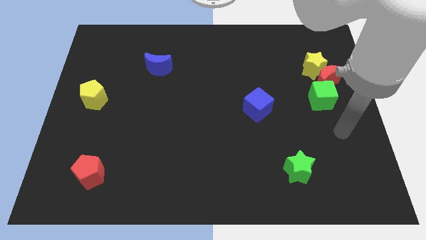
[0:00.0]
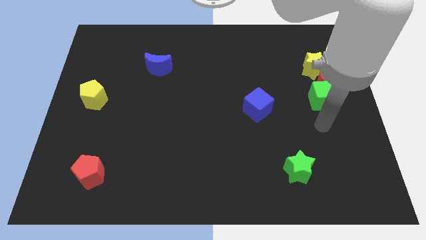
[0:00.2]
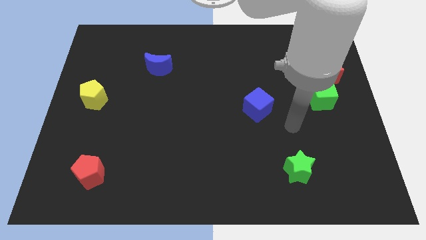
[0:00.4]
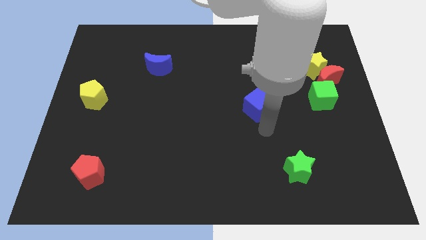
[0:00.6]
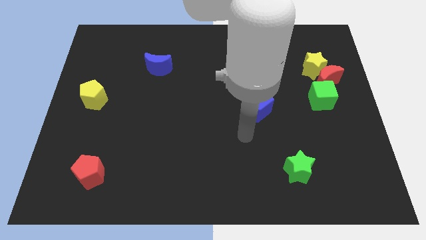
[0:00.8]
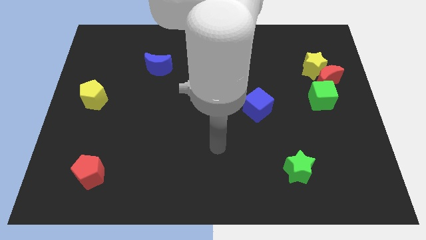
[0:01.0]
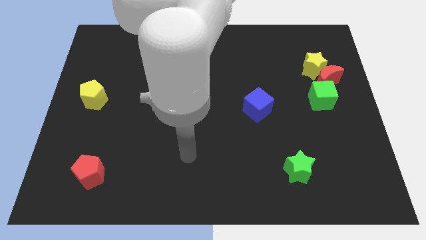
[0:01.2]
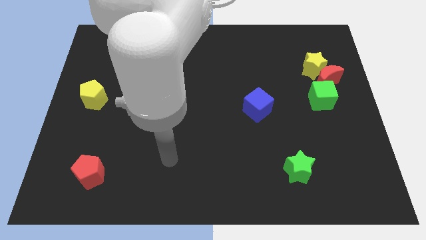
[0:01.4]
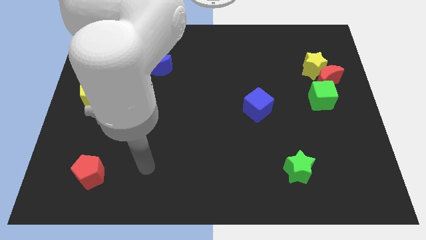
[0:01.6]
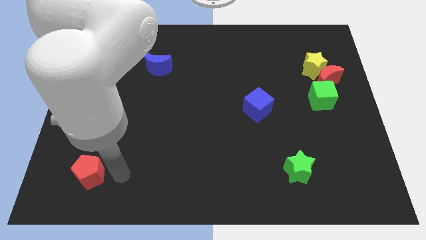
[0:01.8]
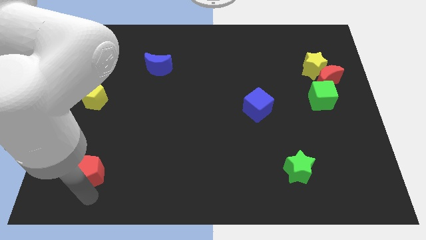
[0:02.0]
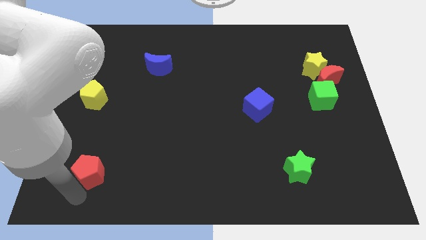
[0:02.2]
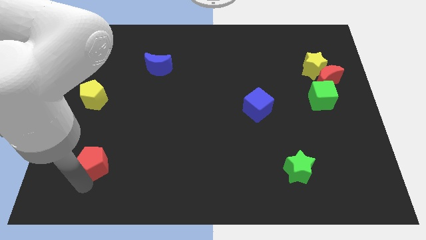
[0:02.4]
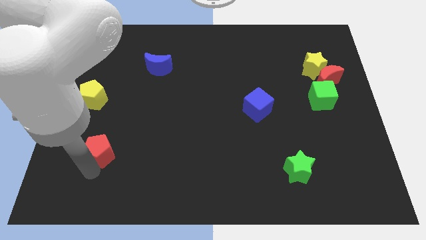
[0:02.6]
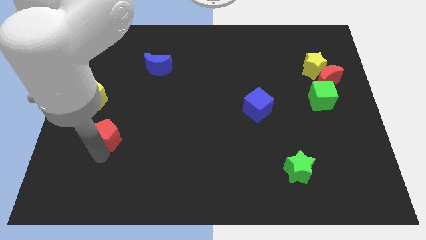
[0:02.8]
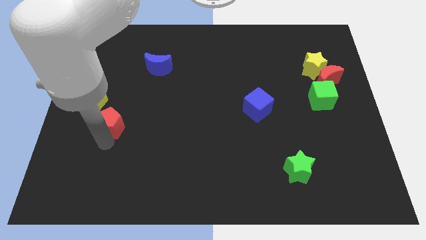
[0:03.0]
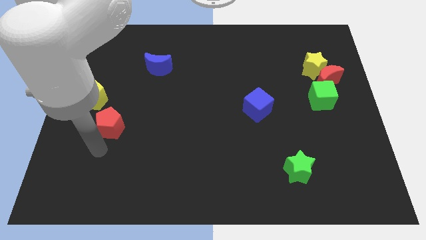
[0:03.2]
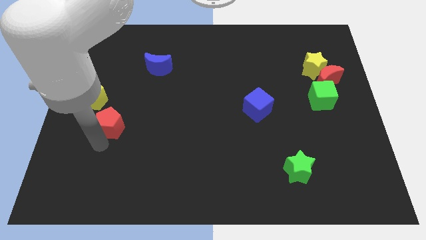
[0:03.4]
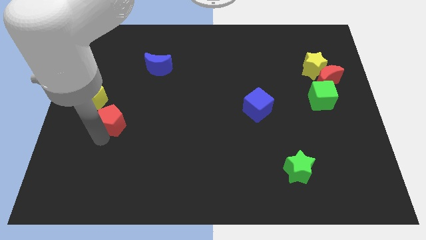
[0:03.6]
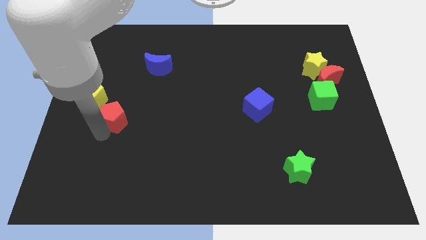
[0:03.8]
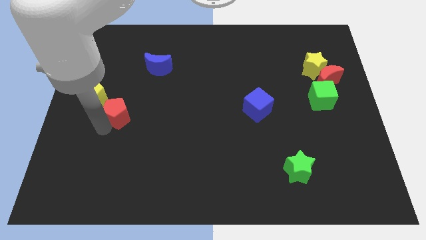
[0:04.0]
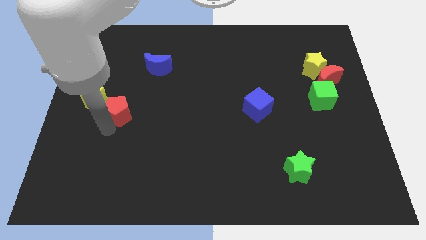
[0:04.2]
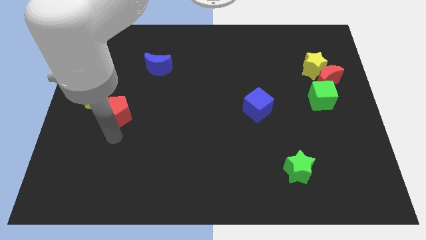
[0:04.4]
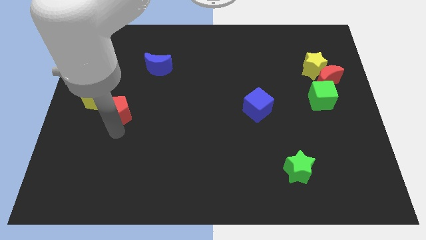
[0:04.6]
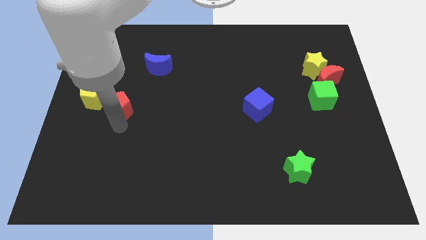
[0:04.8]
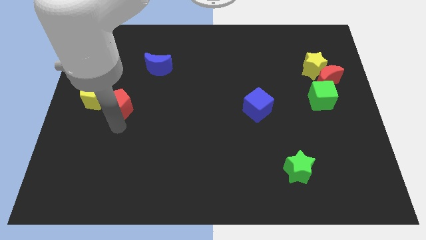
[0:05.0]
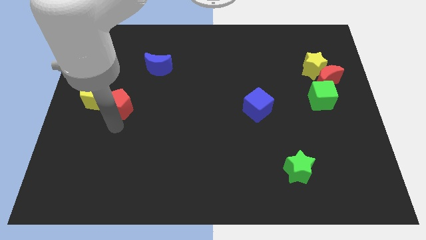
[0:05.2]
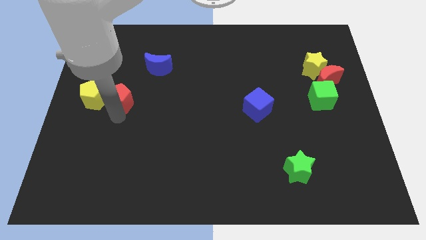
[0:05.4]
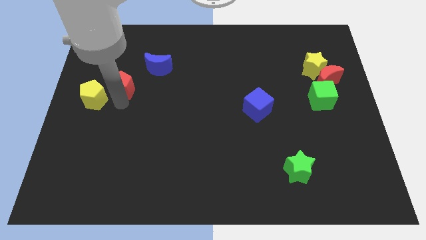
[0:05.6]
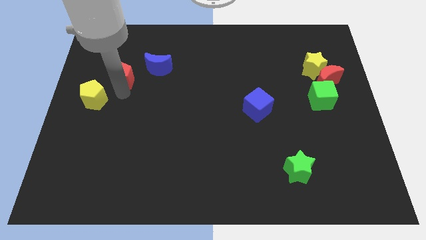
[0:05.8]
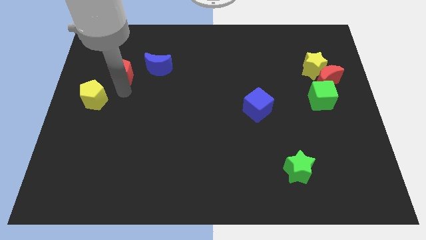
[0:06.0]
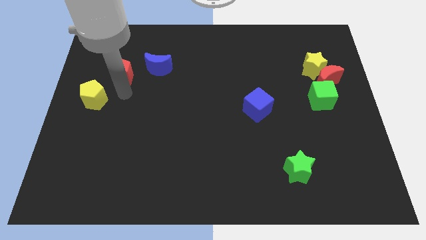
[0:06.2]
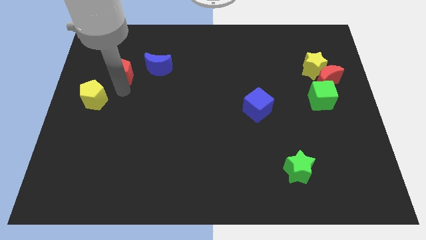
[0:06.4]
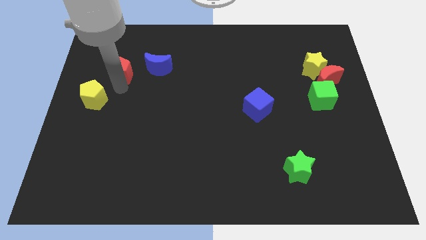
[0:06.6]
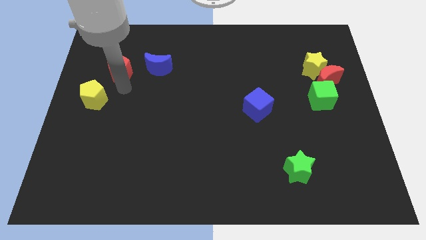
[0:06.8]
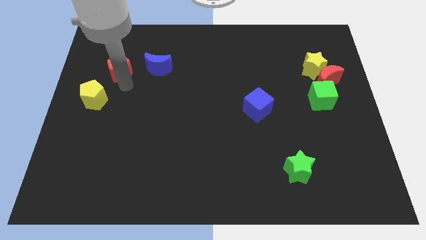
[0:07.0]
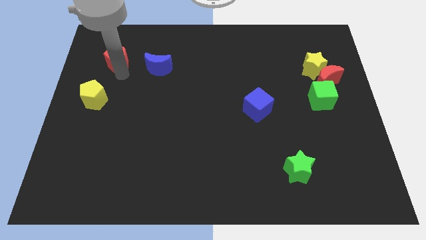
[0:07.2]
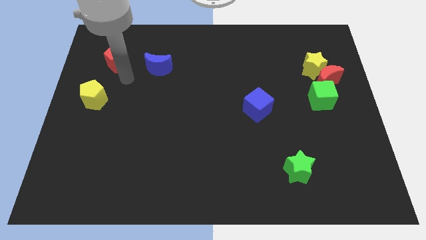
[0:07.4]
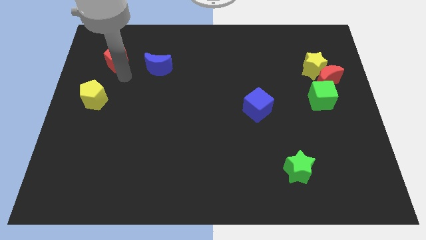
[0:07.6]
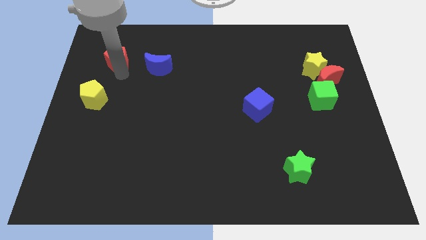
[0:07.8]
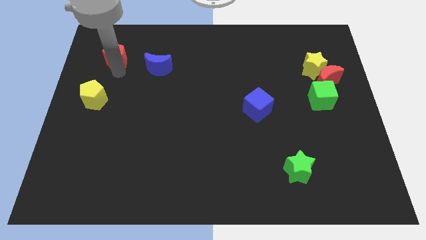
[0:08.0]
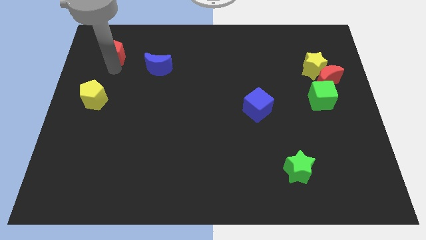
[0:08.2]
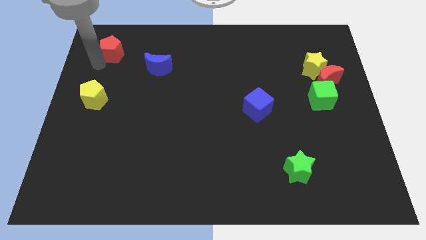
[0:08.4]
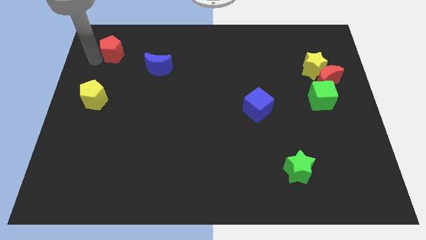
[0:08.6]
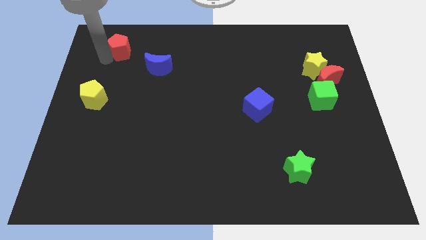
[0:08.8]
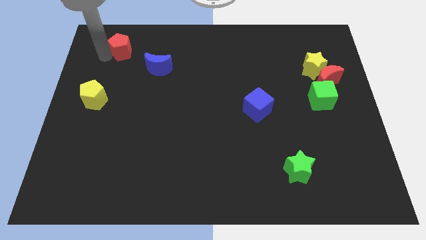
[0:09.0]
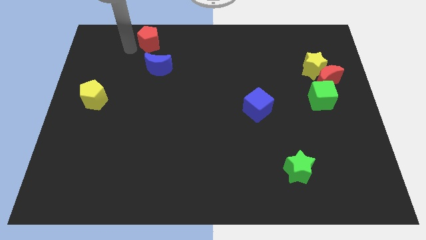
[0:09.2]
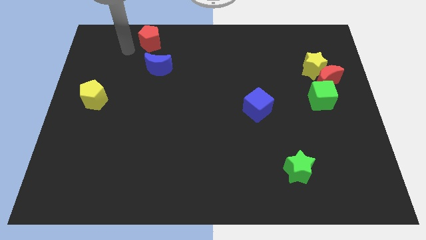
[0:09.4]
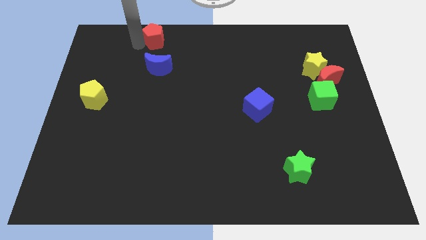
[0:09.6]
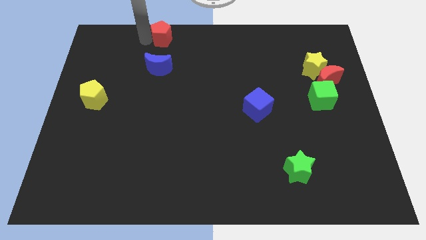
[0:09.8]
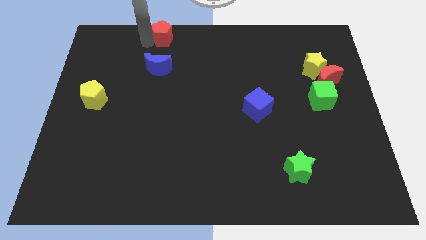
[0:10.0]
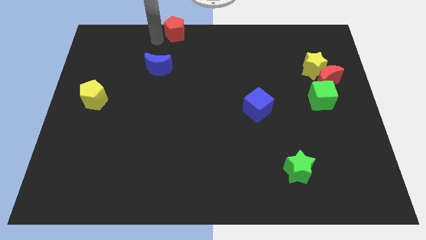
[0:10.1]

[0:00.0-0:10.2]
put the red pentagon to the towards your base

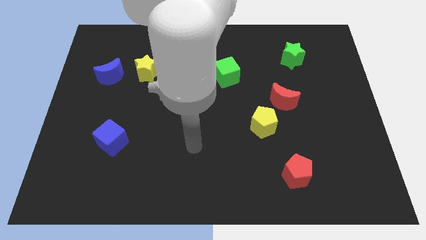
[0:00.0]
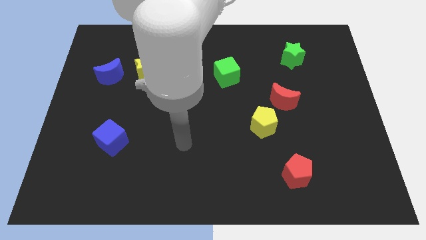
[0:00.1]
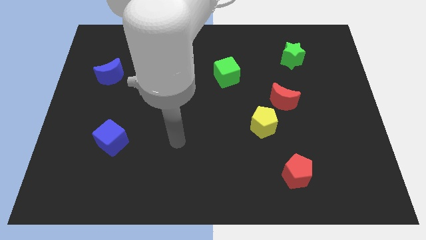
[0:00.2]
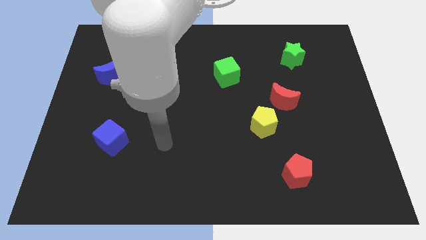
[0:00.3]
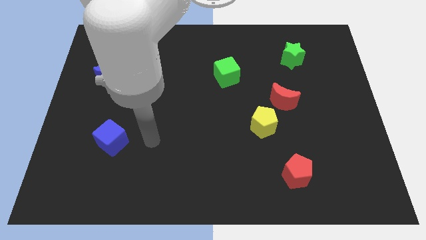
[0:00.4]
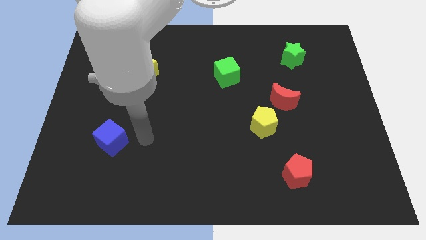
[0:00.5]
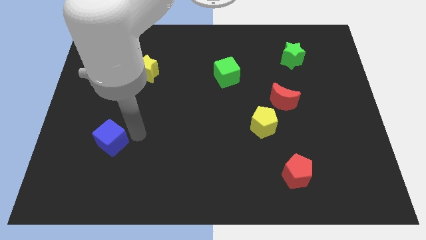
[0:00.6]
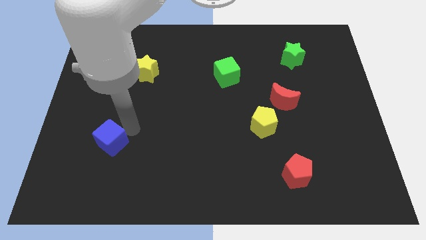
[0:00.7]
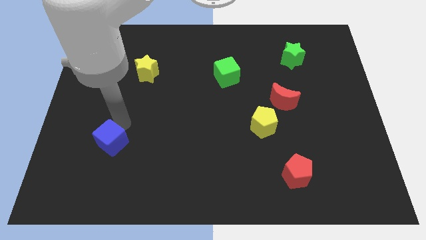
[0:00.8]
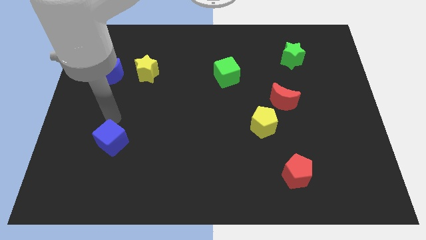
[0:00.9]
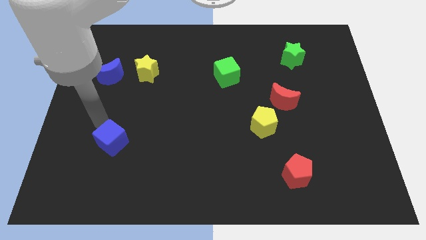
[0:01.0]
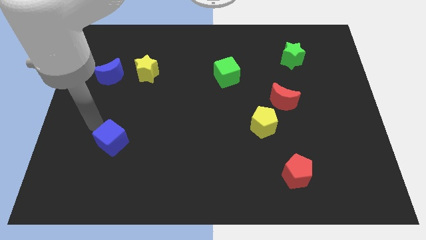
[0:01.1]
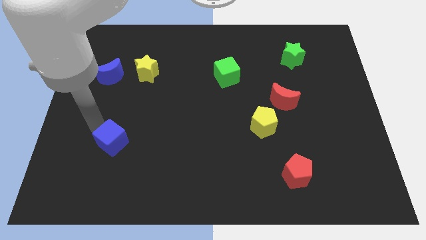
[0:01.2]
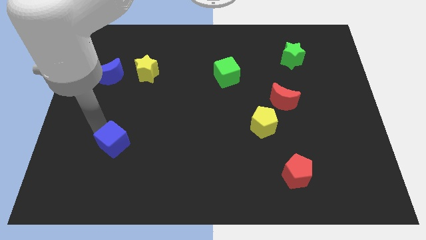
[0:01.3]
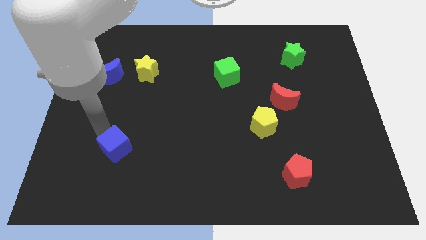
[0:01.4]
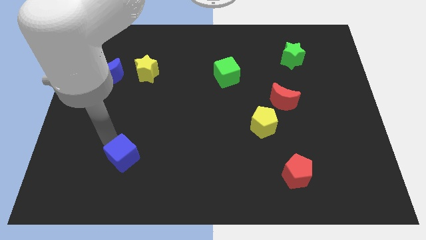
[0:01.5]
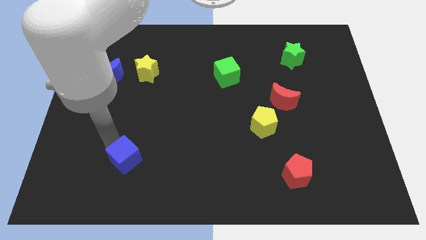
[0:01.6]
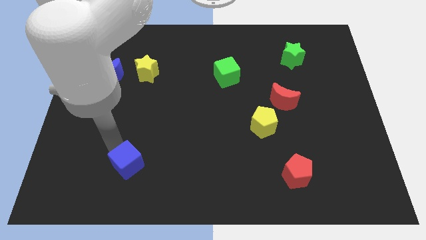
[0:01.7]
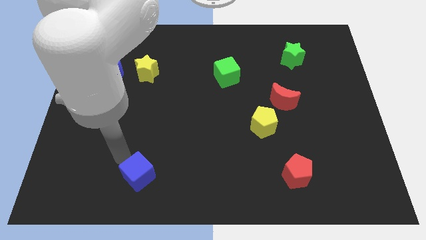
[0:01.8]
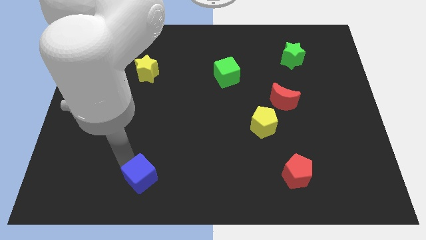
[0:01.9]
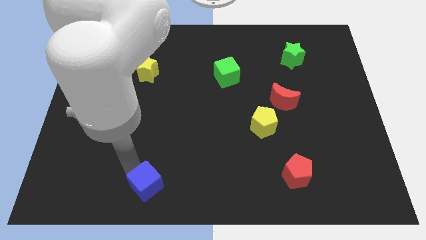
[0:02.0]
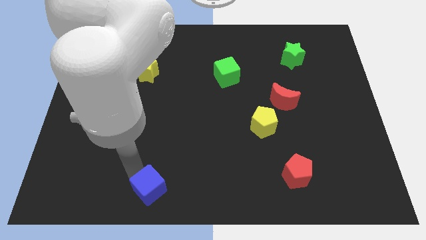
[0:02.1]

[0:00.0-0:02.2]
slide the blue cube to the bottom side
